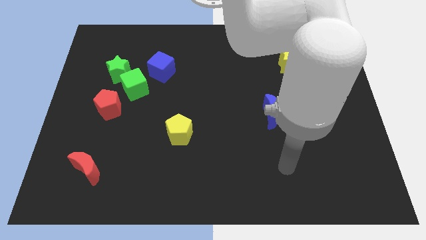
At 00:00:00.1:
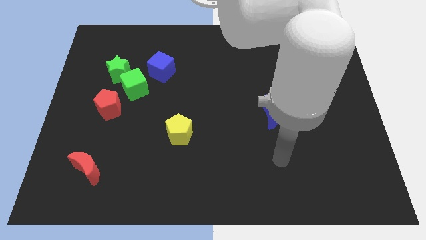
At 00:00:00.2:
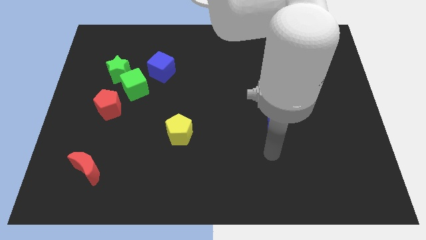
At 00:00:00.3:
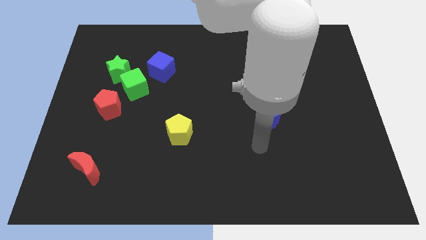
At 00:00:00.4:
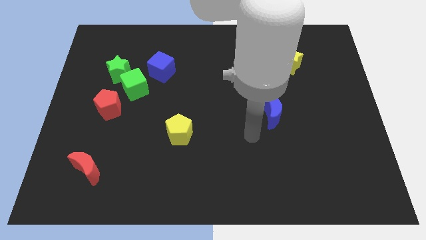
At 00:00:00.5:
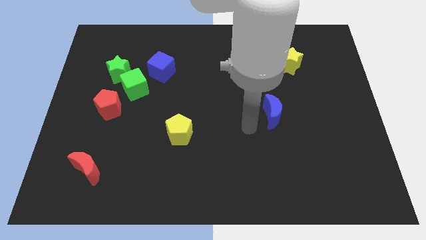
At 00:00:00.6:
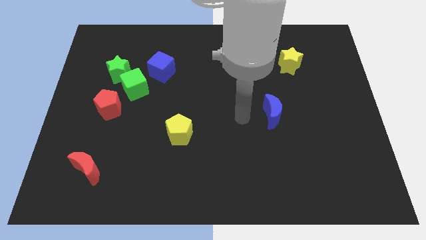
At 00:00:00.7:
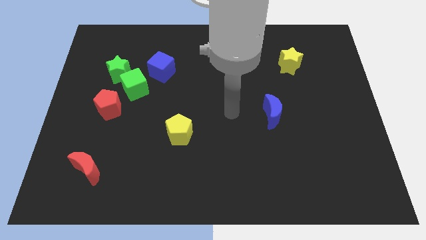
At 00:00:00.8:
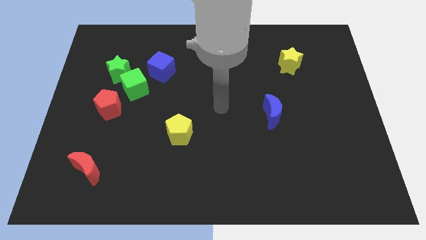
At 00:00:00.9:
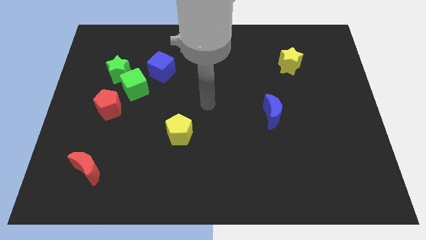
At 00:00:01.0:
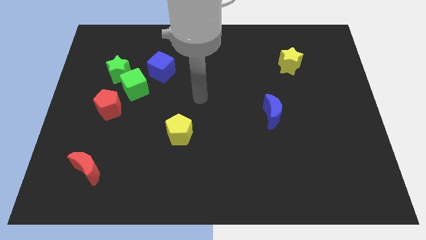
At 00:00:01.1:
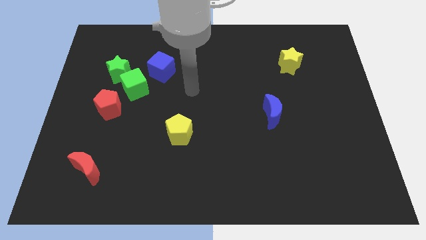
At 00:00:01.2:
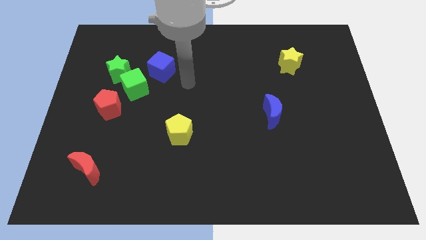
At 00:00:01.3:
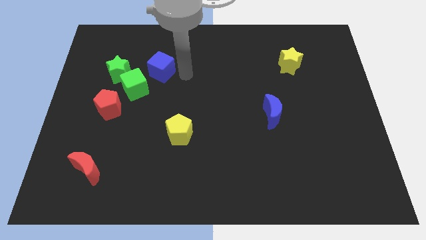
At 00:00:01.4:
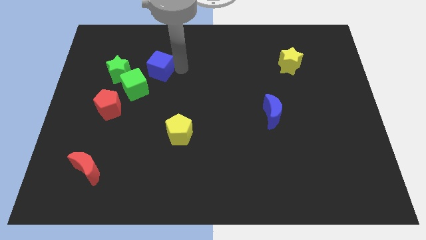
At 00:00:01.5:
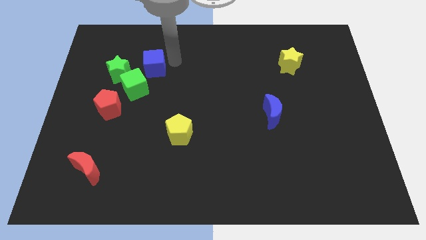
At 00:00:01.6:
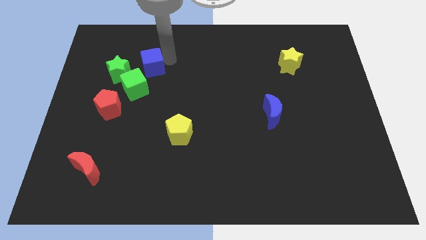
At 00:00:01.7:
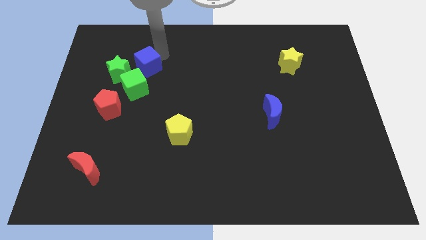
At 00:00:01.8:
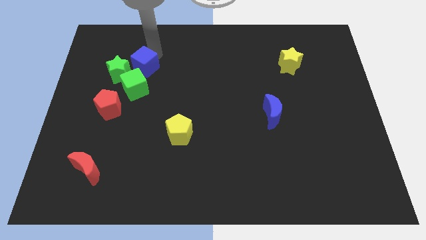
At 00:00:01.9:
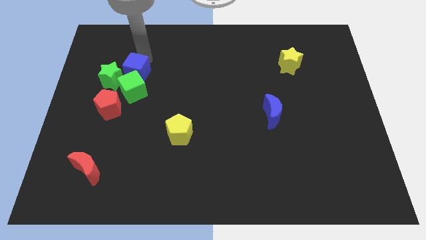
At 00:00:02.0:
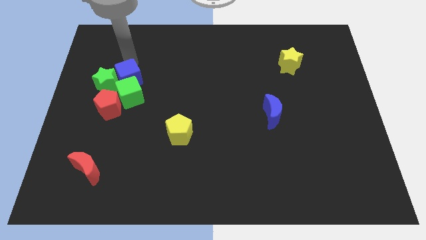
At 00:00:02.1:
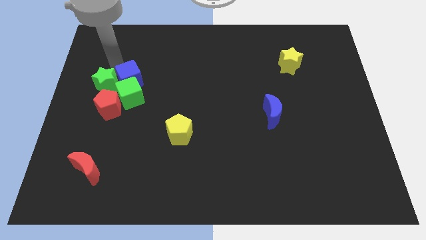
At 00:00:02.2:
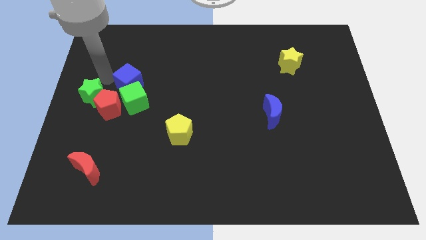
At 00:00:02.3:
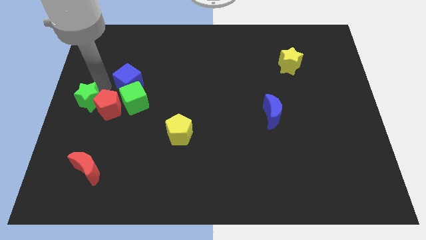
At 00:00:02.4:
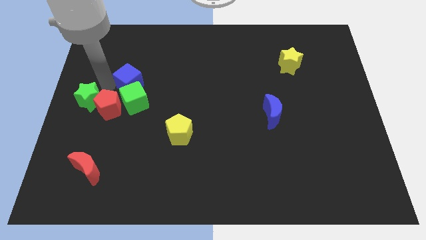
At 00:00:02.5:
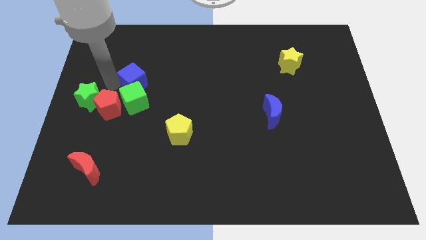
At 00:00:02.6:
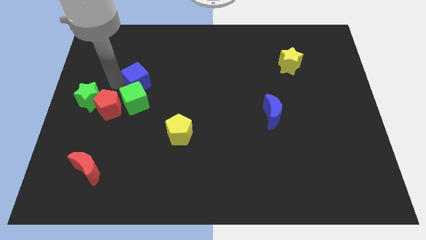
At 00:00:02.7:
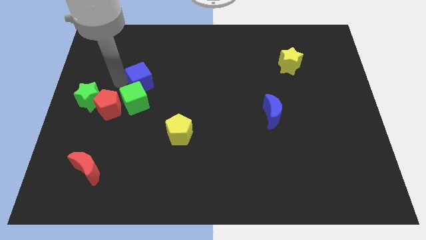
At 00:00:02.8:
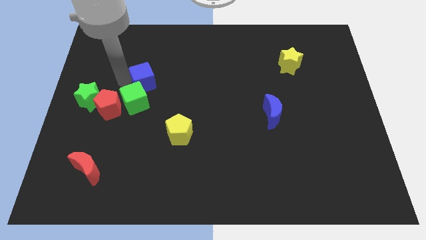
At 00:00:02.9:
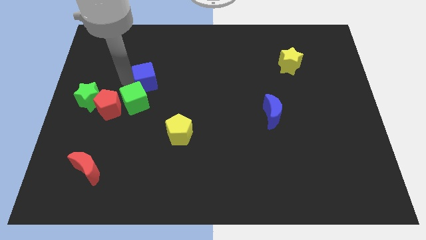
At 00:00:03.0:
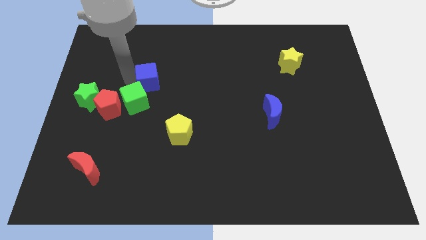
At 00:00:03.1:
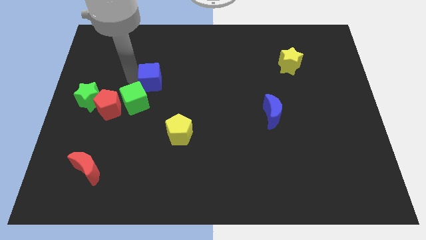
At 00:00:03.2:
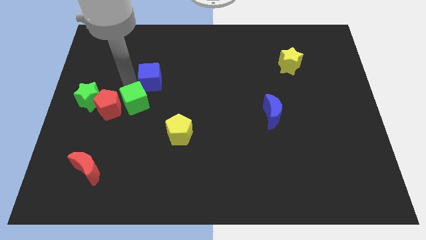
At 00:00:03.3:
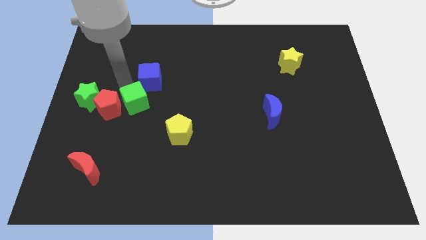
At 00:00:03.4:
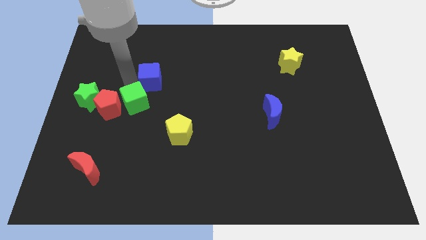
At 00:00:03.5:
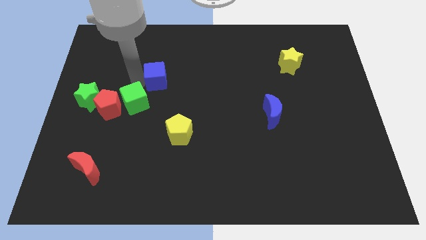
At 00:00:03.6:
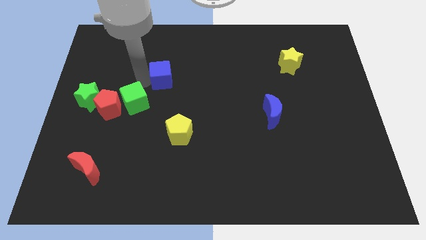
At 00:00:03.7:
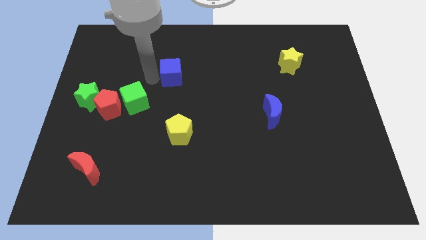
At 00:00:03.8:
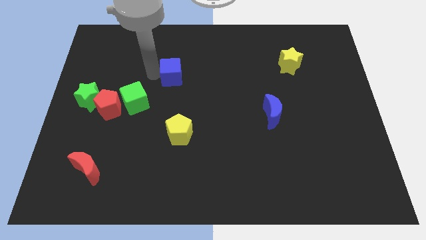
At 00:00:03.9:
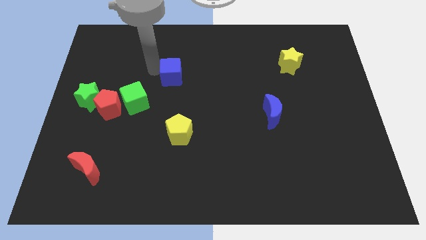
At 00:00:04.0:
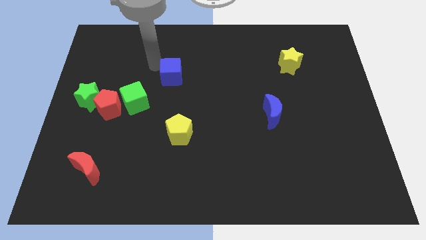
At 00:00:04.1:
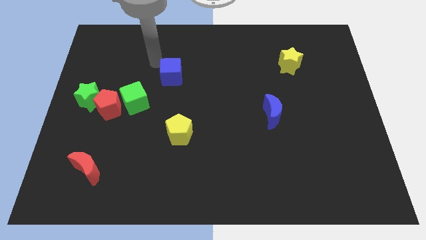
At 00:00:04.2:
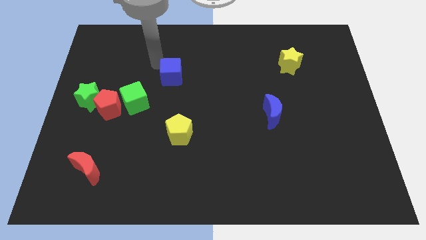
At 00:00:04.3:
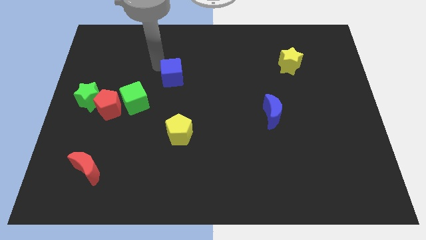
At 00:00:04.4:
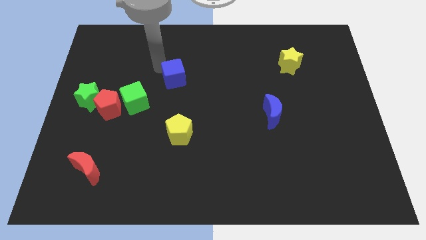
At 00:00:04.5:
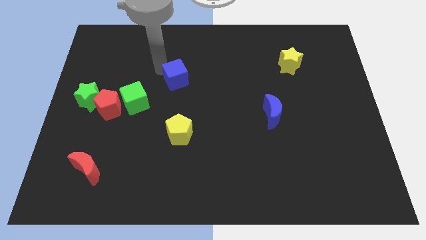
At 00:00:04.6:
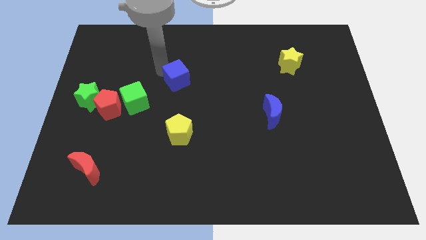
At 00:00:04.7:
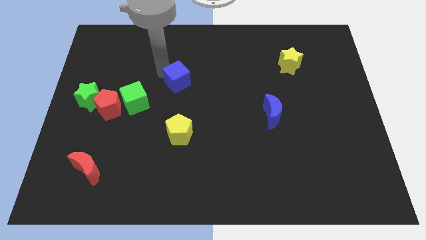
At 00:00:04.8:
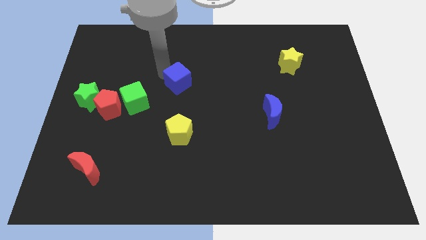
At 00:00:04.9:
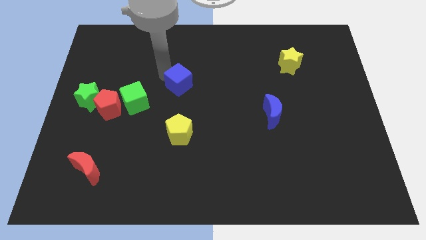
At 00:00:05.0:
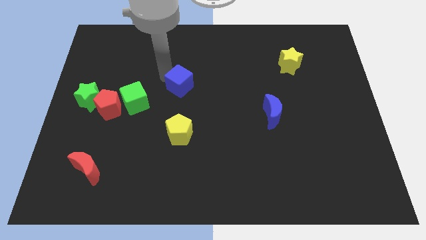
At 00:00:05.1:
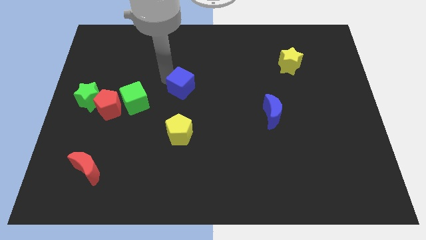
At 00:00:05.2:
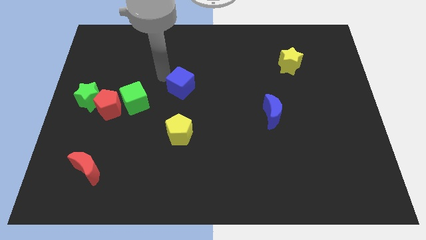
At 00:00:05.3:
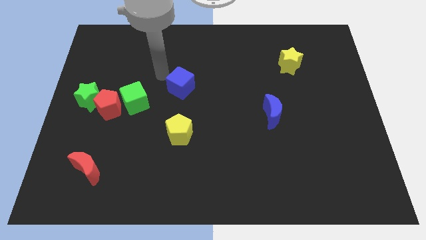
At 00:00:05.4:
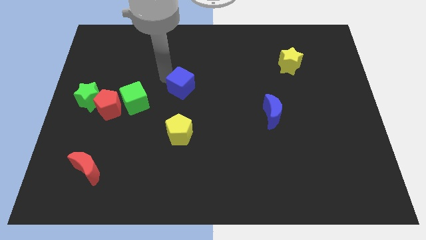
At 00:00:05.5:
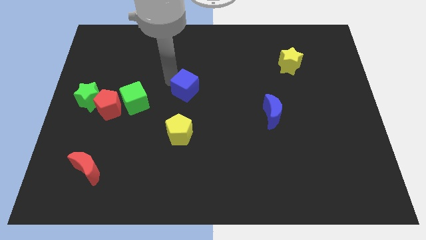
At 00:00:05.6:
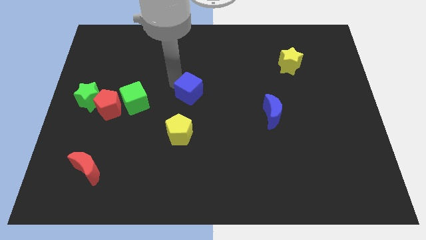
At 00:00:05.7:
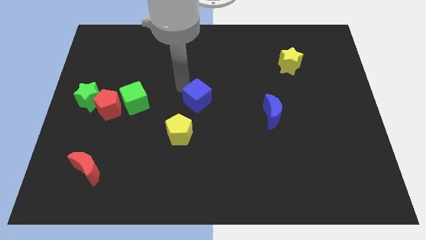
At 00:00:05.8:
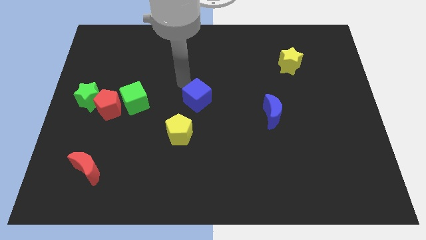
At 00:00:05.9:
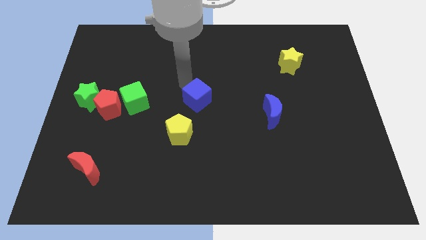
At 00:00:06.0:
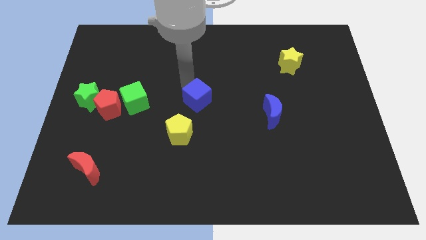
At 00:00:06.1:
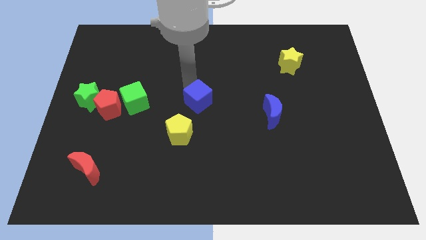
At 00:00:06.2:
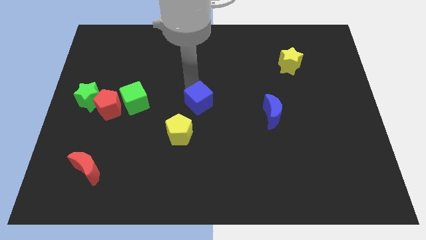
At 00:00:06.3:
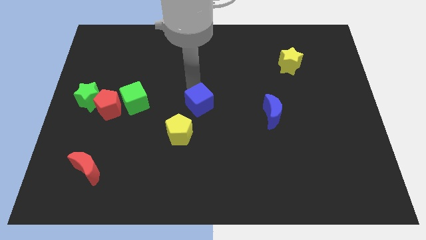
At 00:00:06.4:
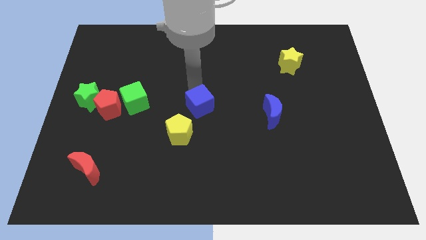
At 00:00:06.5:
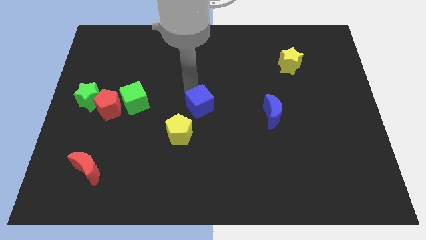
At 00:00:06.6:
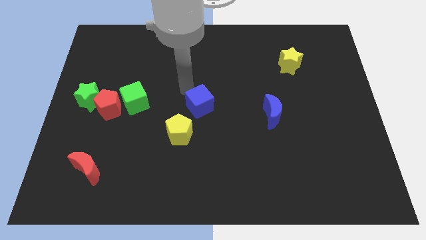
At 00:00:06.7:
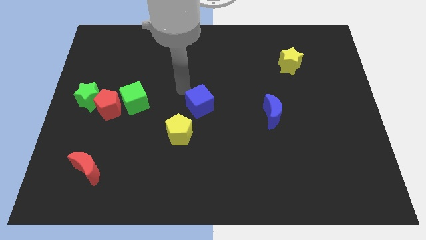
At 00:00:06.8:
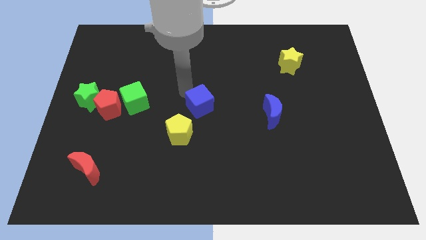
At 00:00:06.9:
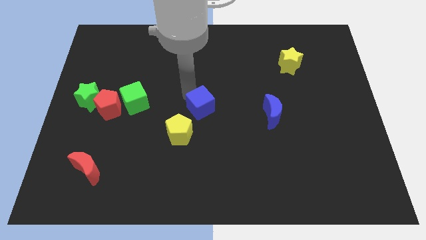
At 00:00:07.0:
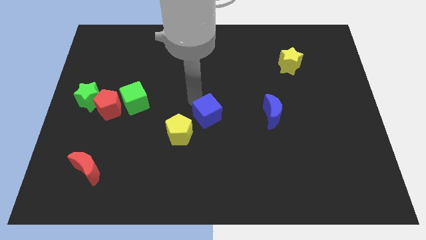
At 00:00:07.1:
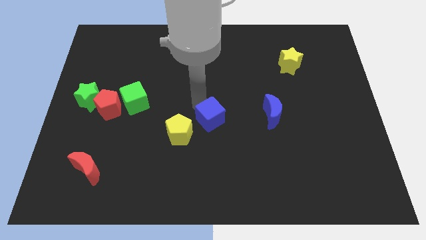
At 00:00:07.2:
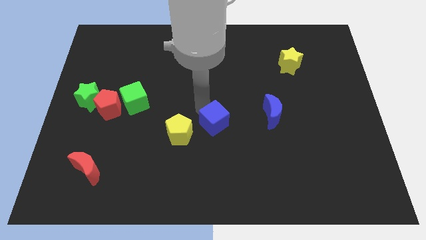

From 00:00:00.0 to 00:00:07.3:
push the blue cube down and to the right diagonally

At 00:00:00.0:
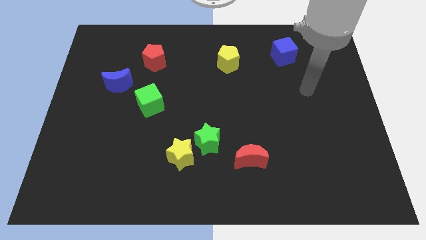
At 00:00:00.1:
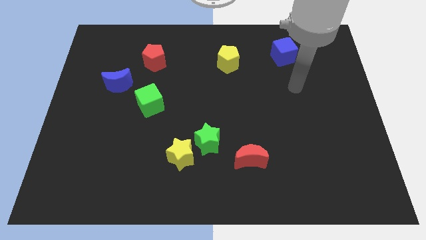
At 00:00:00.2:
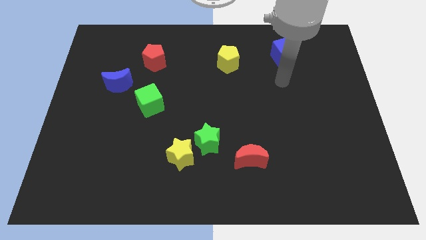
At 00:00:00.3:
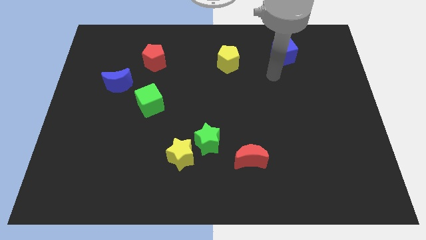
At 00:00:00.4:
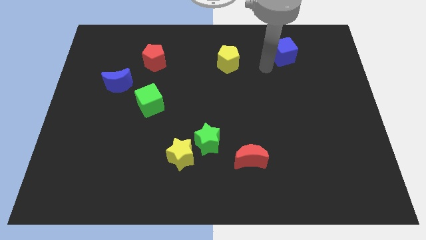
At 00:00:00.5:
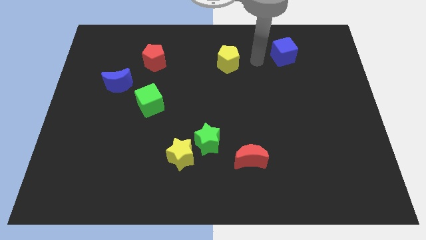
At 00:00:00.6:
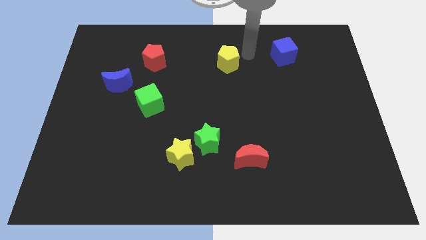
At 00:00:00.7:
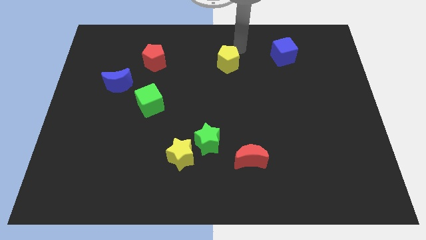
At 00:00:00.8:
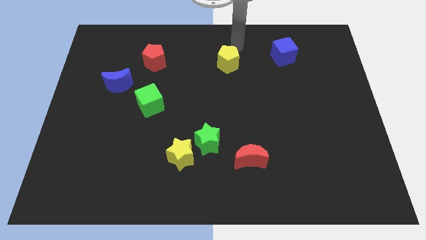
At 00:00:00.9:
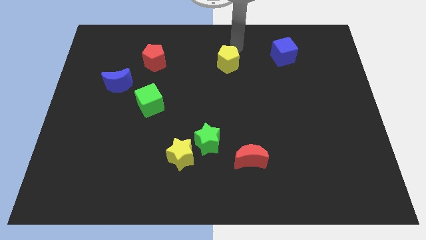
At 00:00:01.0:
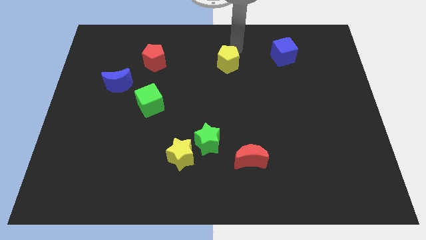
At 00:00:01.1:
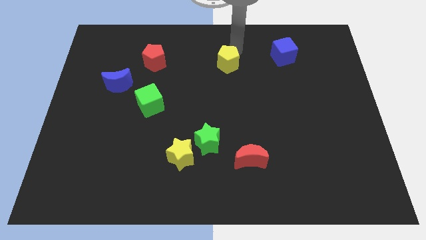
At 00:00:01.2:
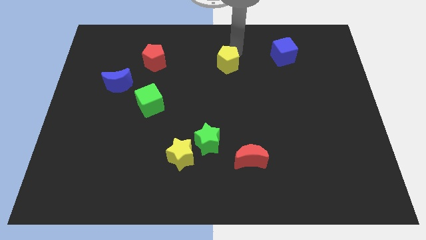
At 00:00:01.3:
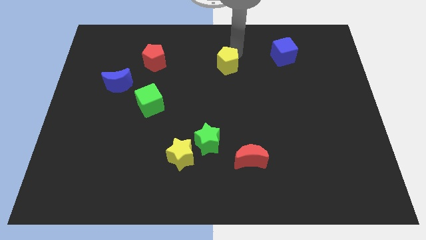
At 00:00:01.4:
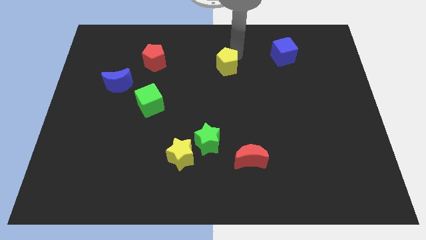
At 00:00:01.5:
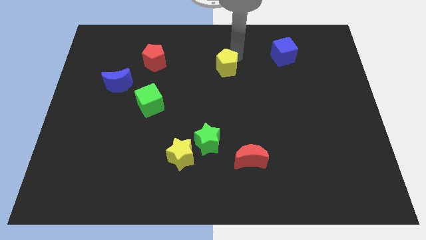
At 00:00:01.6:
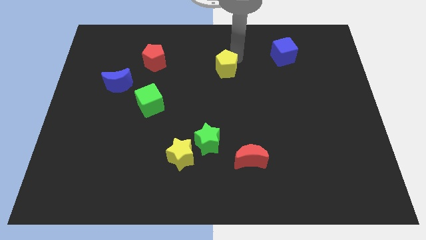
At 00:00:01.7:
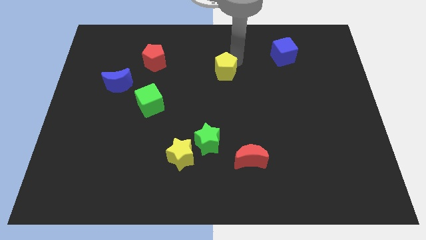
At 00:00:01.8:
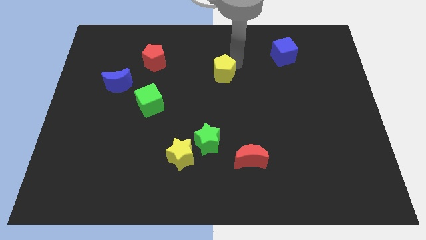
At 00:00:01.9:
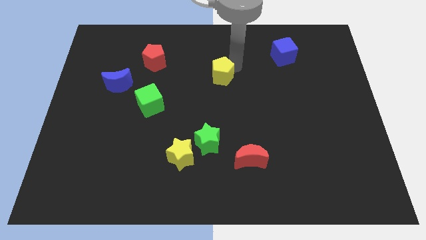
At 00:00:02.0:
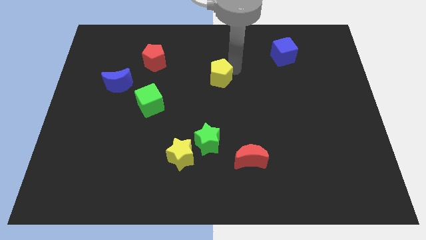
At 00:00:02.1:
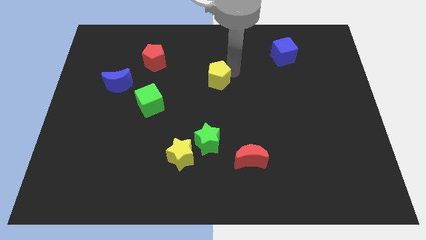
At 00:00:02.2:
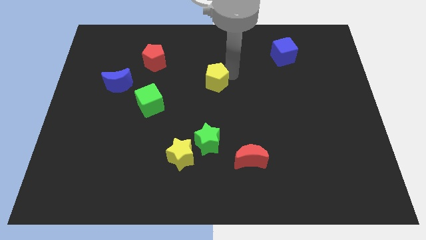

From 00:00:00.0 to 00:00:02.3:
move the yellow pentagon a little down and left diagonally
